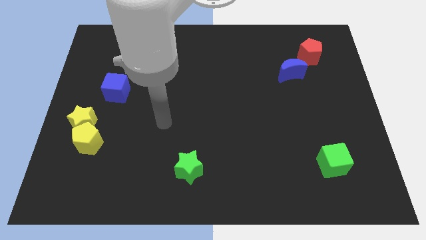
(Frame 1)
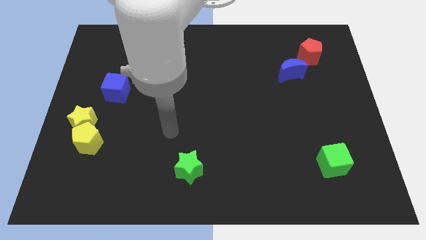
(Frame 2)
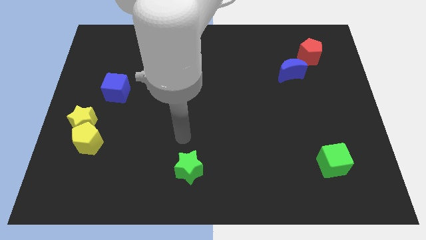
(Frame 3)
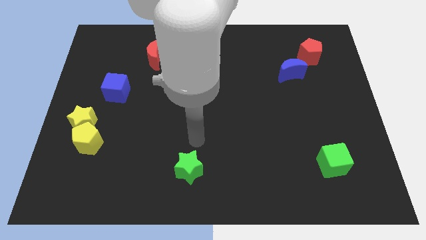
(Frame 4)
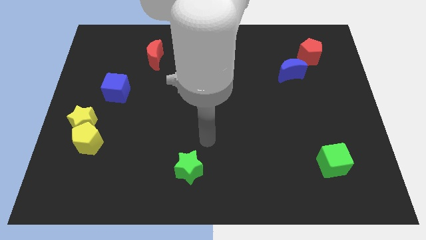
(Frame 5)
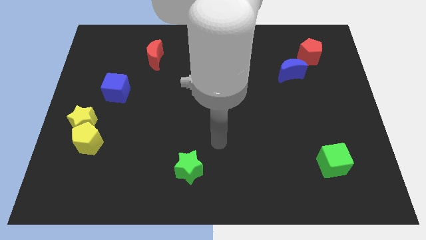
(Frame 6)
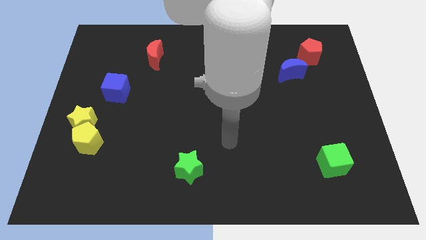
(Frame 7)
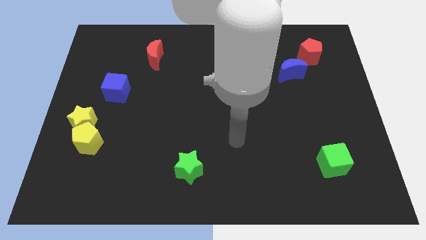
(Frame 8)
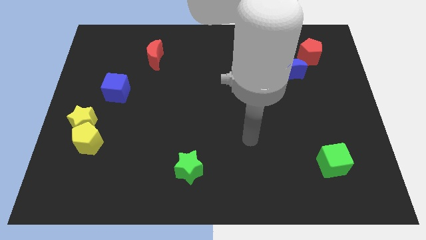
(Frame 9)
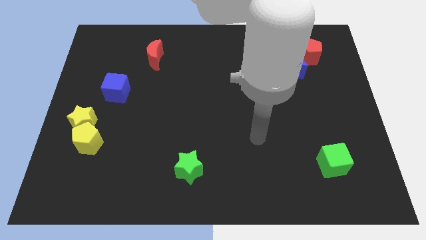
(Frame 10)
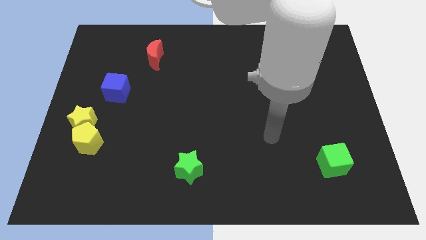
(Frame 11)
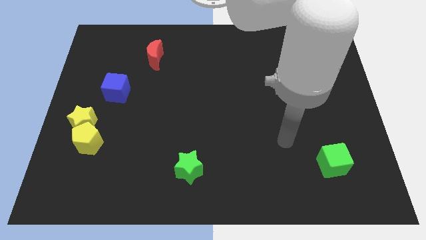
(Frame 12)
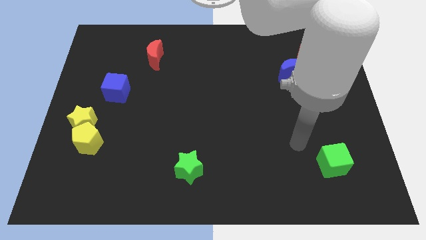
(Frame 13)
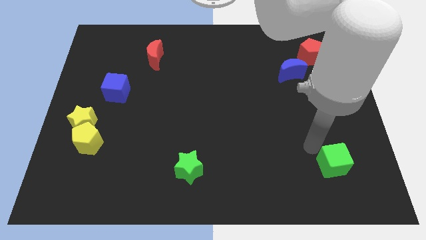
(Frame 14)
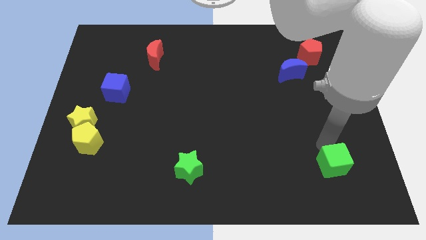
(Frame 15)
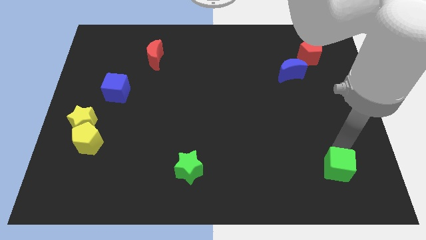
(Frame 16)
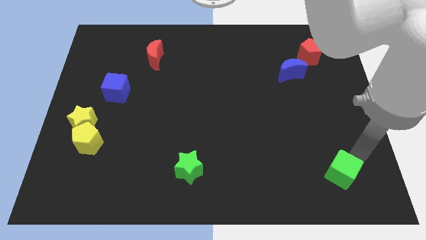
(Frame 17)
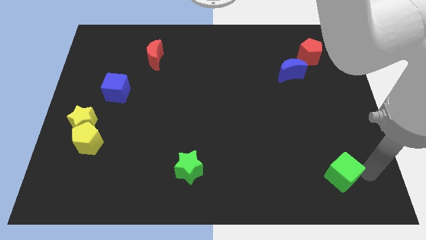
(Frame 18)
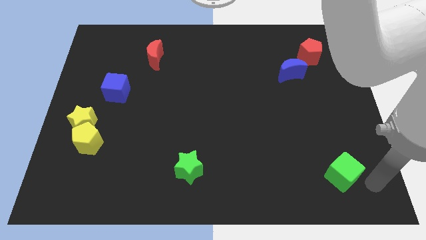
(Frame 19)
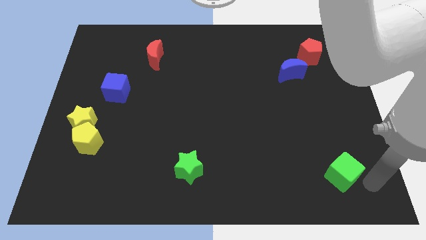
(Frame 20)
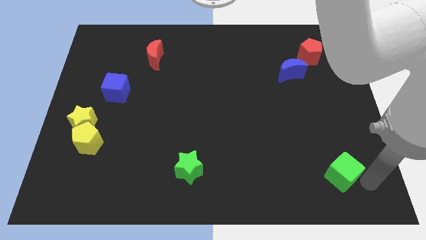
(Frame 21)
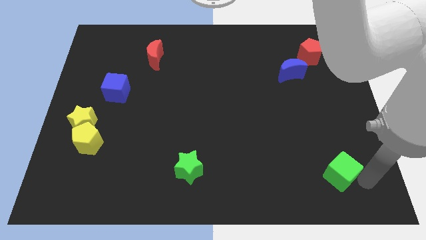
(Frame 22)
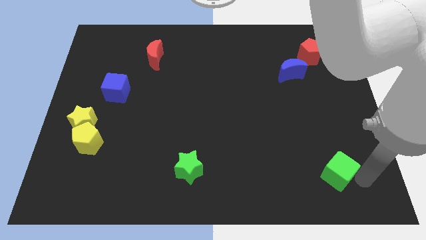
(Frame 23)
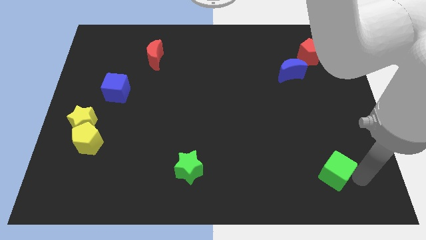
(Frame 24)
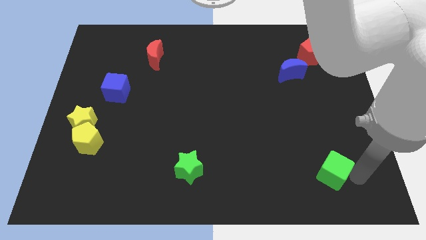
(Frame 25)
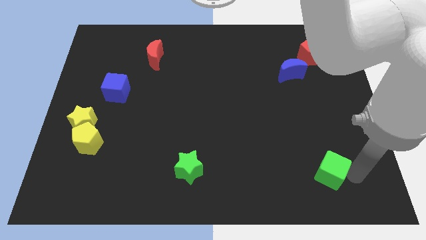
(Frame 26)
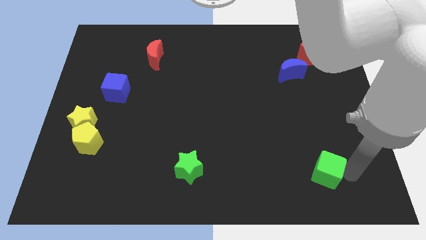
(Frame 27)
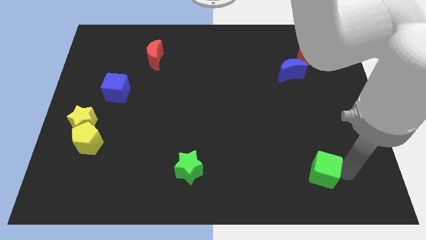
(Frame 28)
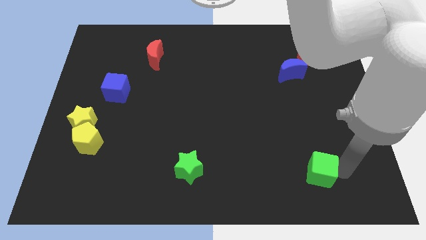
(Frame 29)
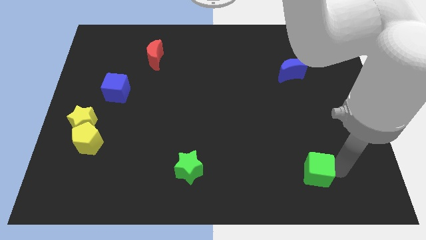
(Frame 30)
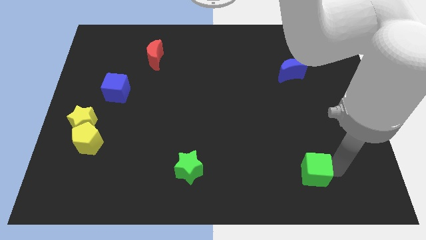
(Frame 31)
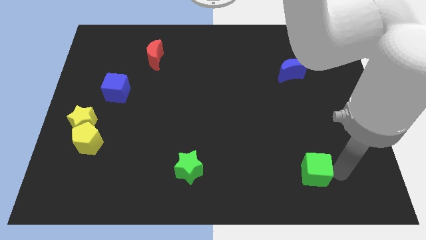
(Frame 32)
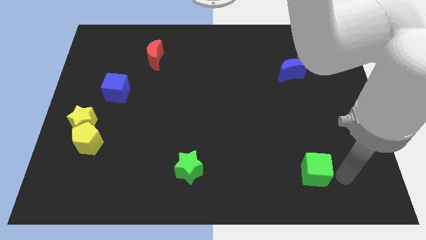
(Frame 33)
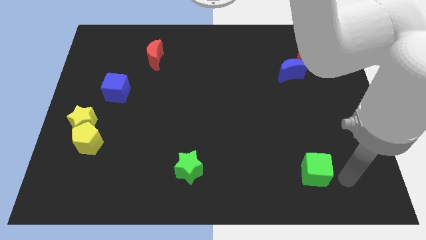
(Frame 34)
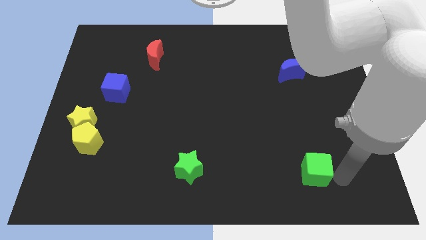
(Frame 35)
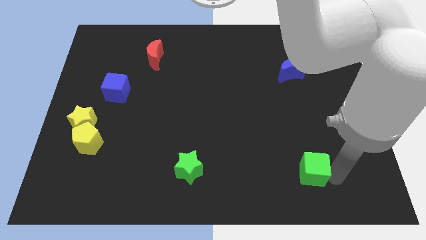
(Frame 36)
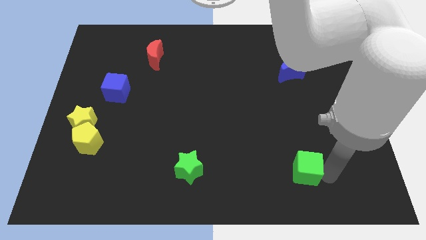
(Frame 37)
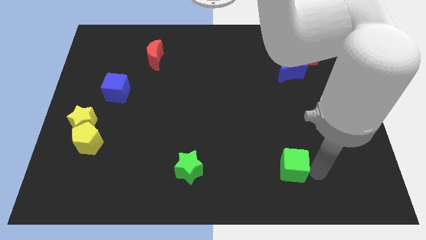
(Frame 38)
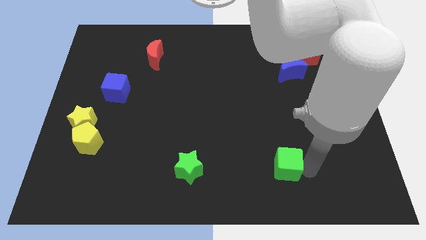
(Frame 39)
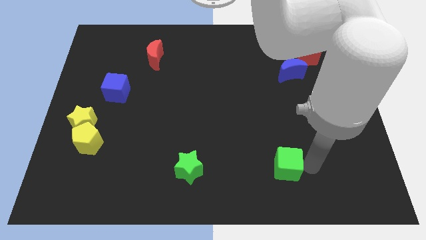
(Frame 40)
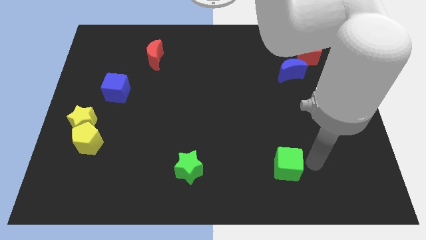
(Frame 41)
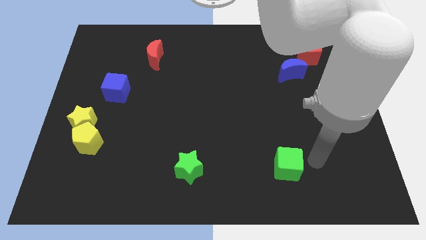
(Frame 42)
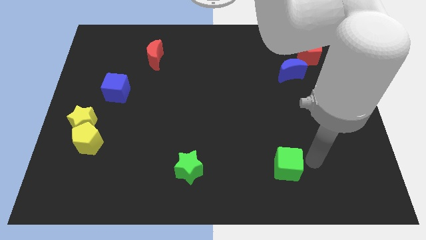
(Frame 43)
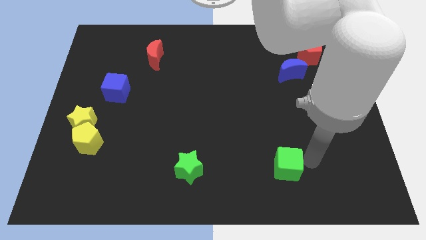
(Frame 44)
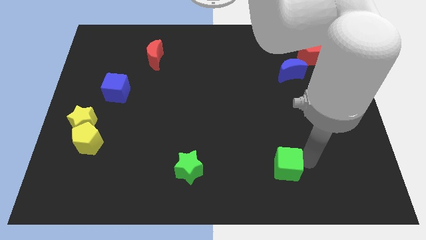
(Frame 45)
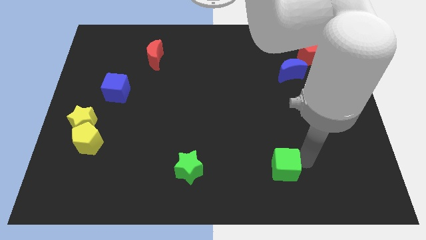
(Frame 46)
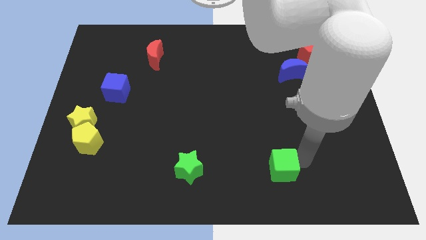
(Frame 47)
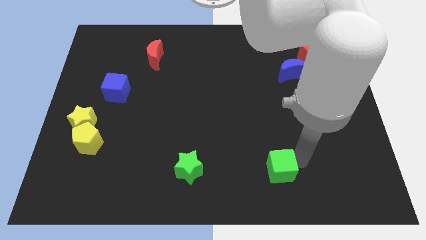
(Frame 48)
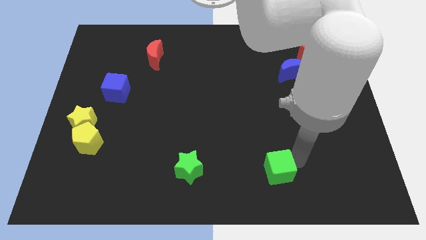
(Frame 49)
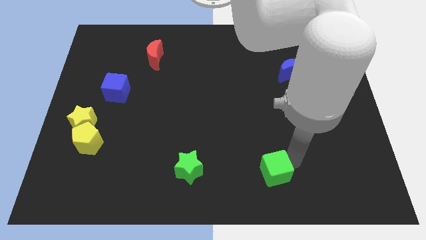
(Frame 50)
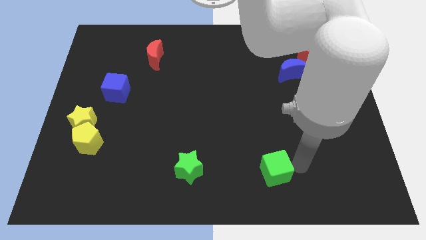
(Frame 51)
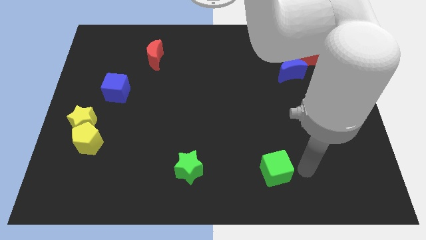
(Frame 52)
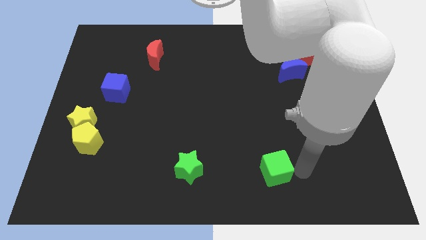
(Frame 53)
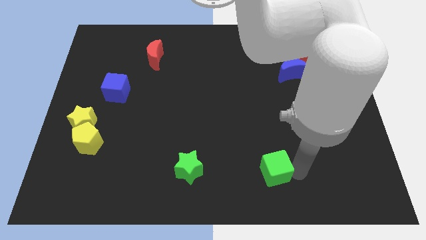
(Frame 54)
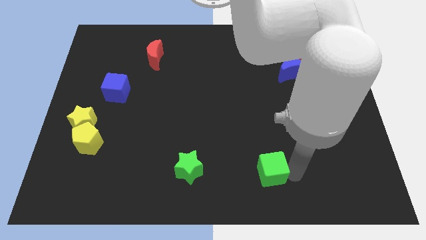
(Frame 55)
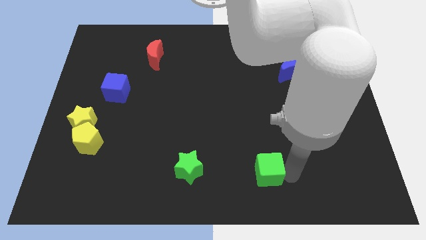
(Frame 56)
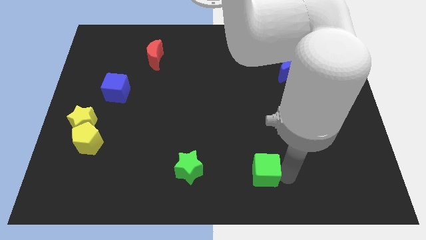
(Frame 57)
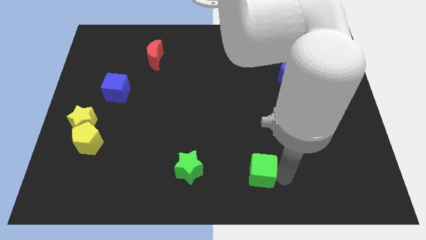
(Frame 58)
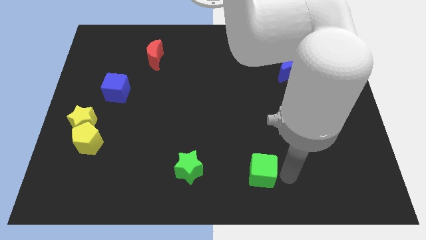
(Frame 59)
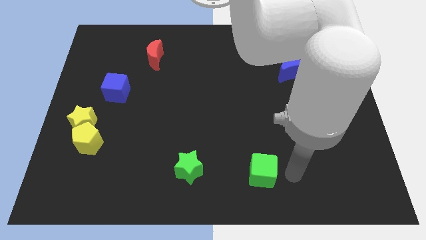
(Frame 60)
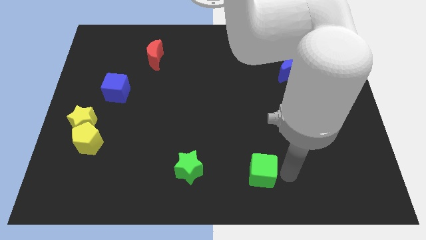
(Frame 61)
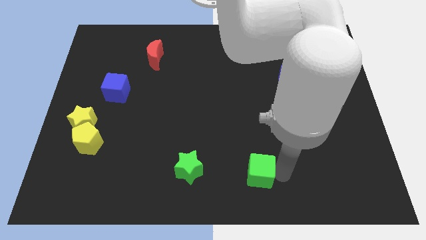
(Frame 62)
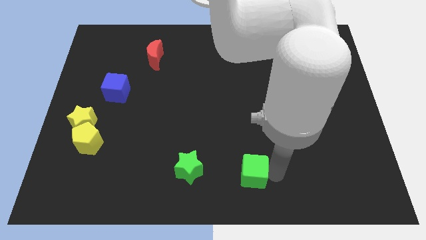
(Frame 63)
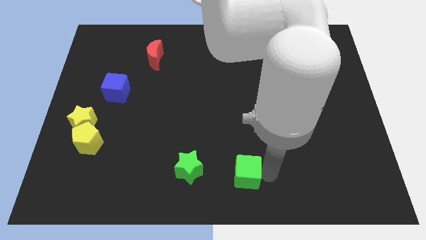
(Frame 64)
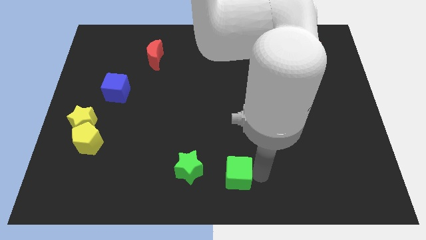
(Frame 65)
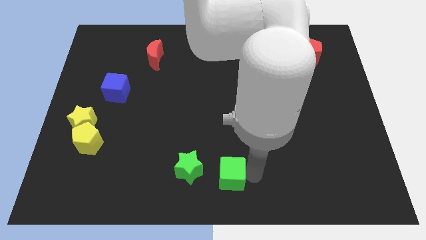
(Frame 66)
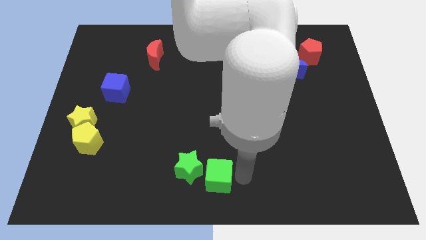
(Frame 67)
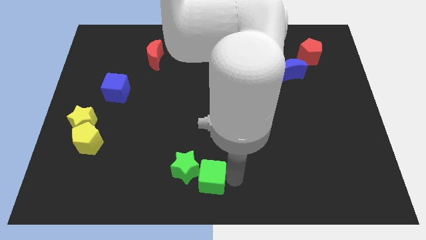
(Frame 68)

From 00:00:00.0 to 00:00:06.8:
move the green cube towards the green star
